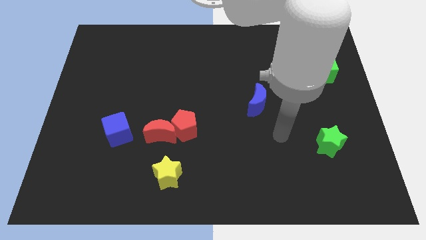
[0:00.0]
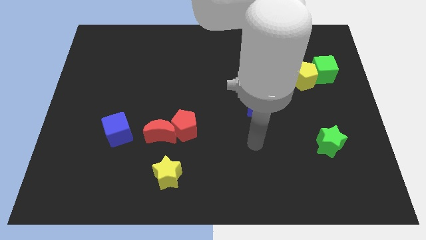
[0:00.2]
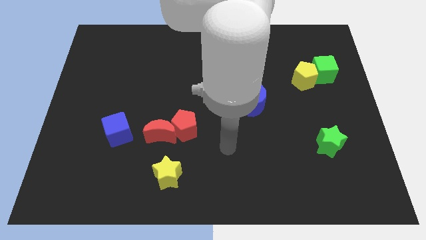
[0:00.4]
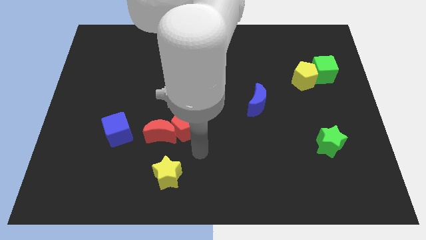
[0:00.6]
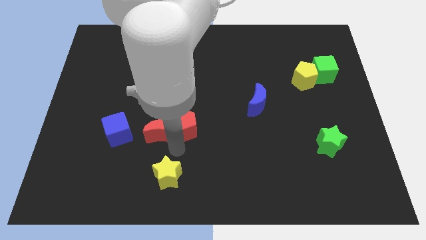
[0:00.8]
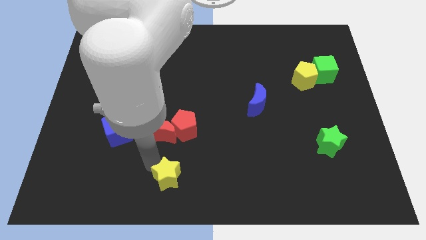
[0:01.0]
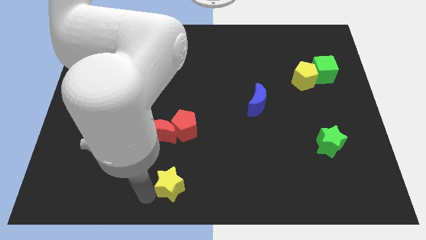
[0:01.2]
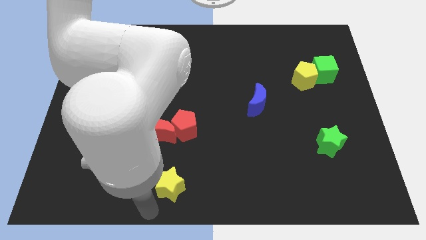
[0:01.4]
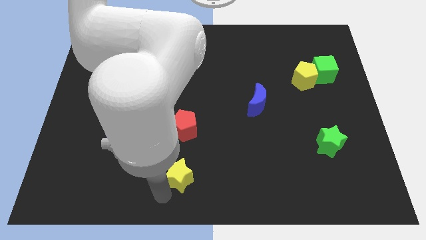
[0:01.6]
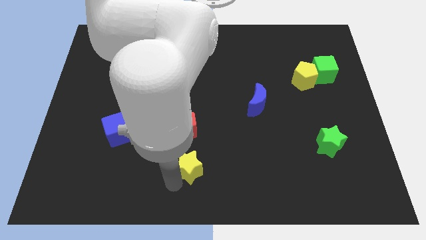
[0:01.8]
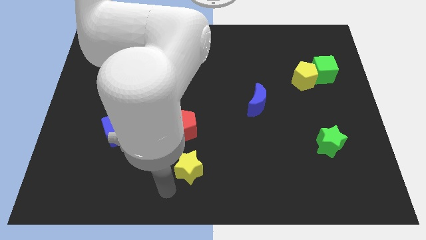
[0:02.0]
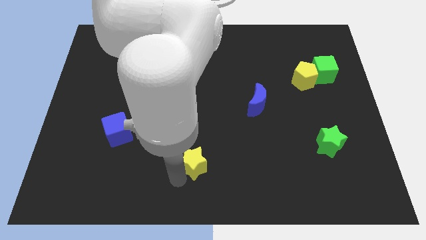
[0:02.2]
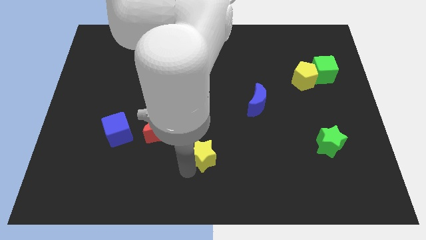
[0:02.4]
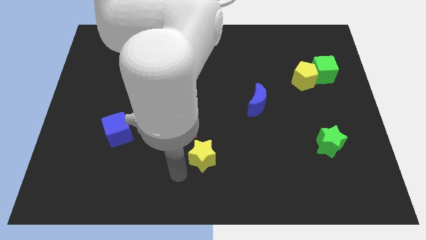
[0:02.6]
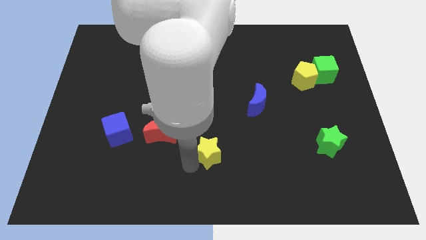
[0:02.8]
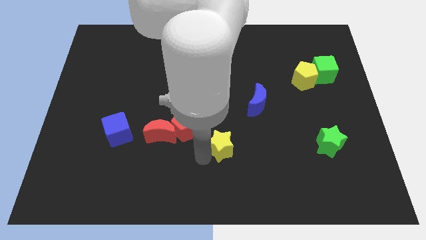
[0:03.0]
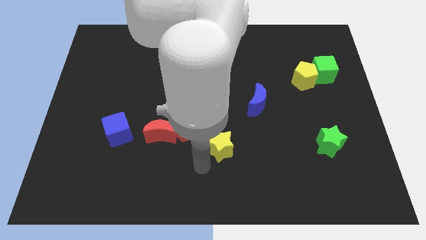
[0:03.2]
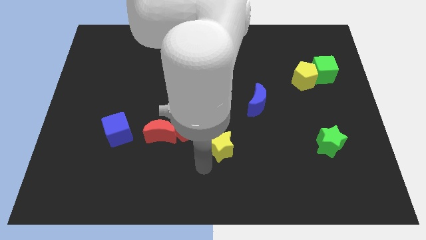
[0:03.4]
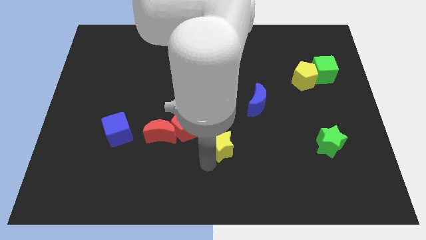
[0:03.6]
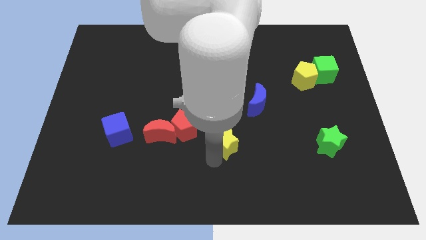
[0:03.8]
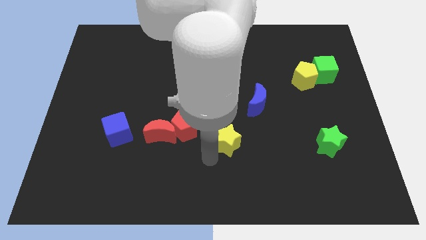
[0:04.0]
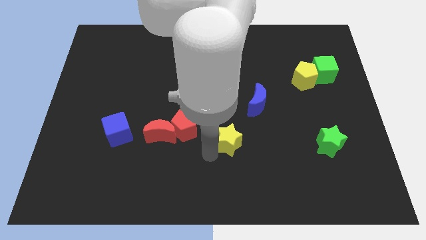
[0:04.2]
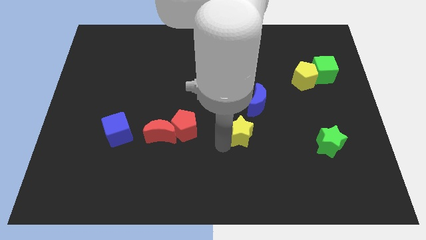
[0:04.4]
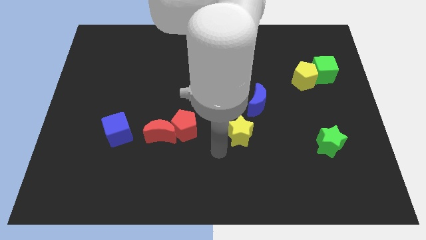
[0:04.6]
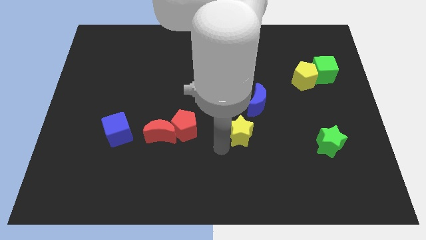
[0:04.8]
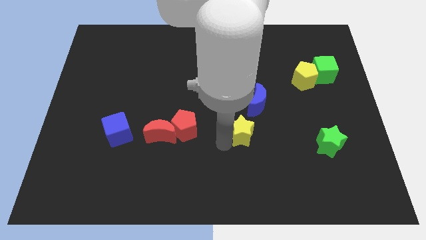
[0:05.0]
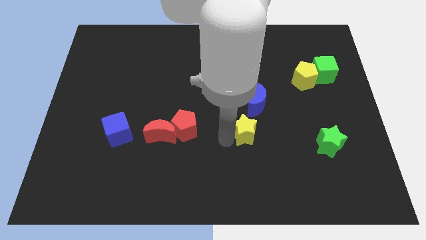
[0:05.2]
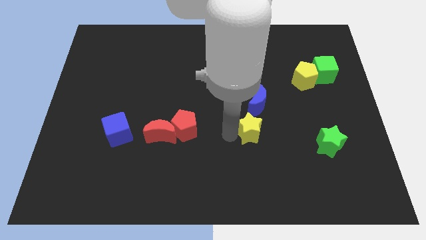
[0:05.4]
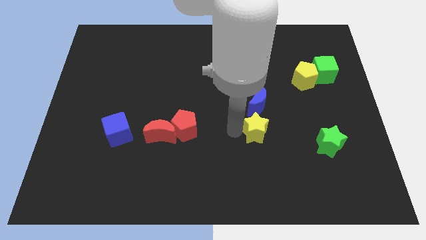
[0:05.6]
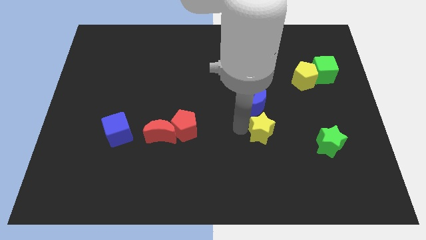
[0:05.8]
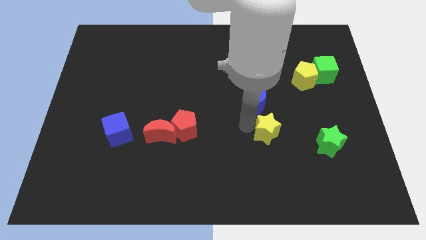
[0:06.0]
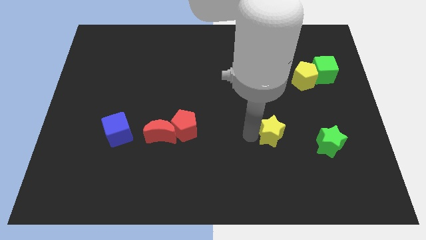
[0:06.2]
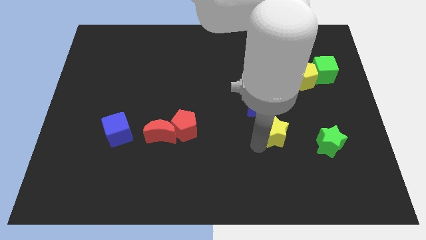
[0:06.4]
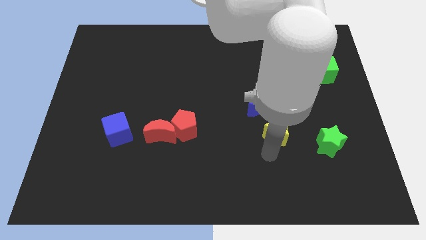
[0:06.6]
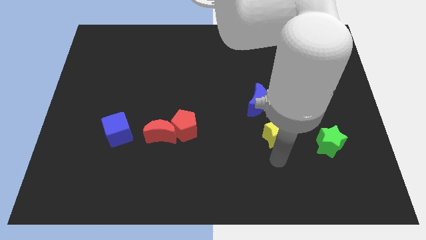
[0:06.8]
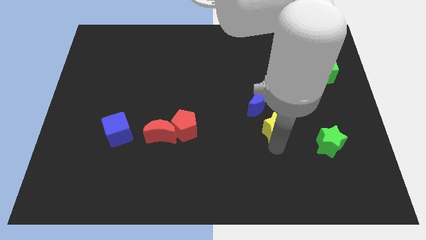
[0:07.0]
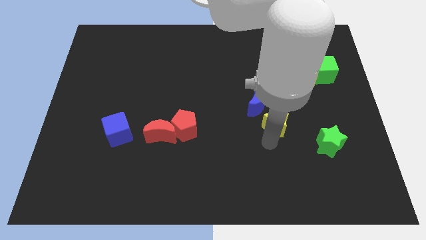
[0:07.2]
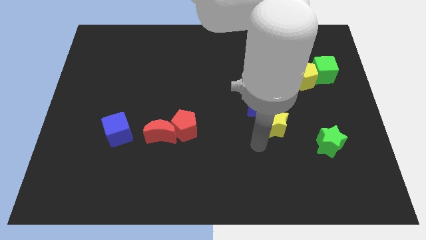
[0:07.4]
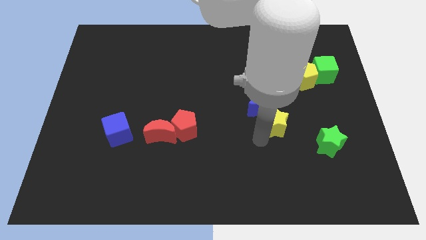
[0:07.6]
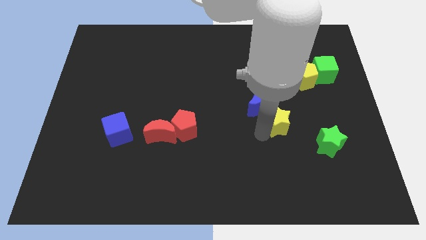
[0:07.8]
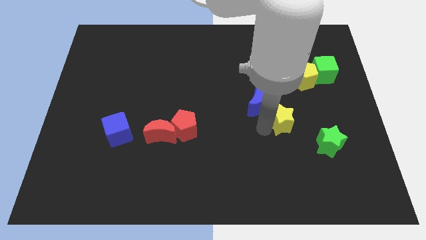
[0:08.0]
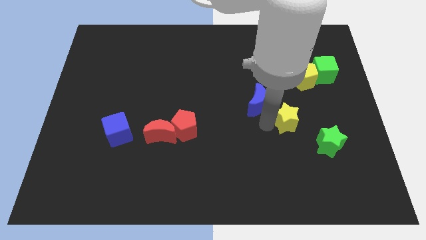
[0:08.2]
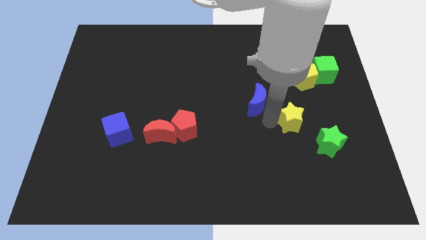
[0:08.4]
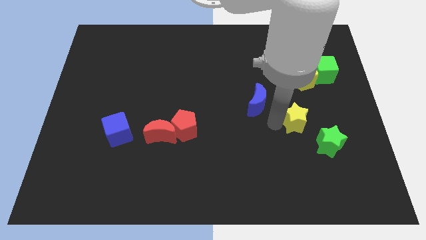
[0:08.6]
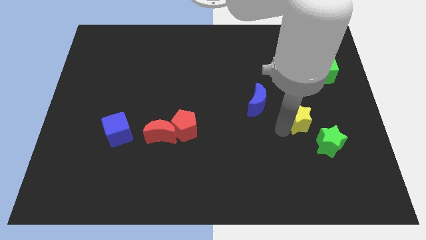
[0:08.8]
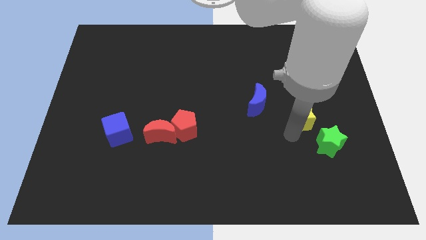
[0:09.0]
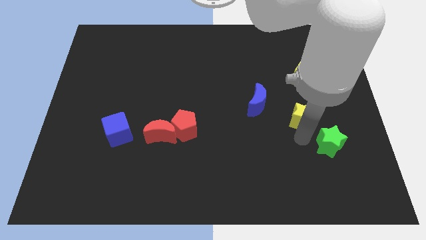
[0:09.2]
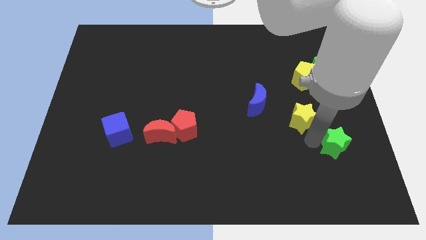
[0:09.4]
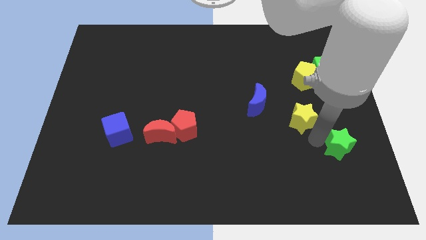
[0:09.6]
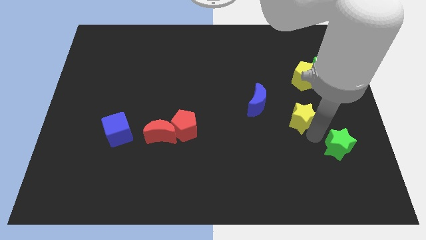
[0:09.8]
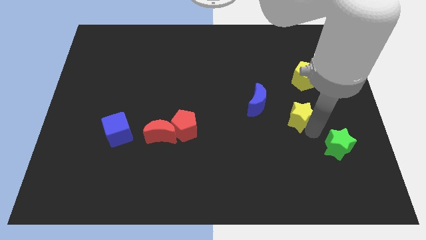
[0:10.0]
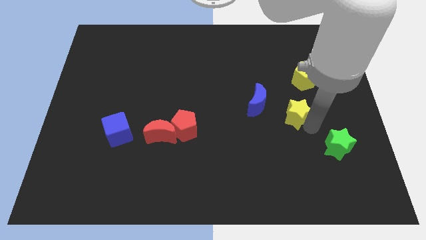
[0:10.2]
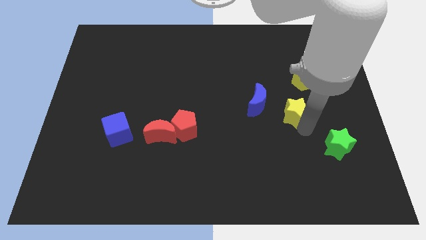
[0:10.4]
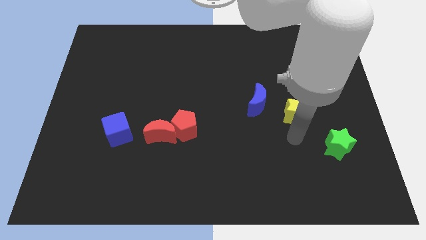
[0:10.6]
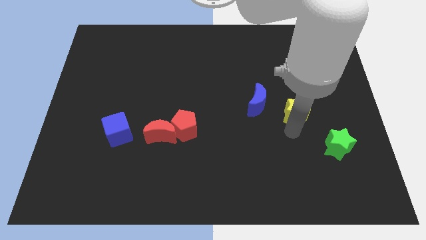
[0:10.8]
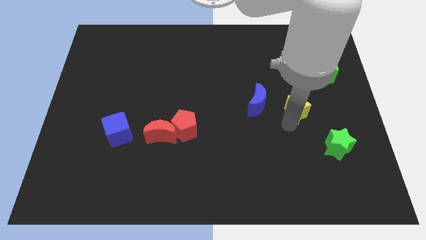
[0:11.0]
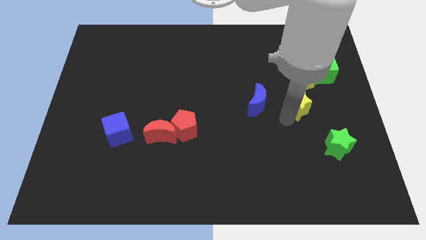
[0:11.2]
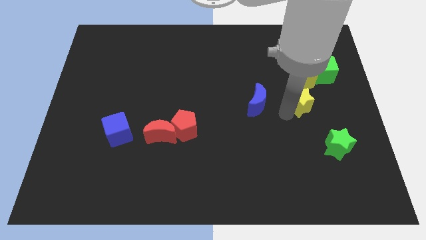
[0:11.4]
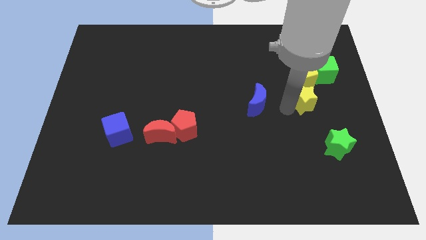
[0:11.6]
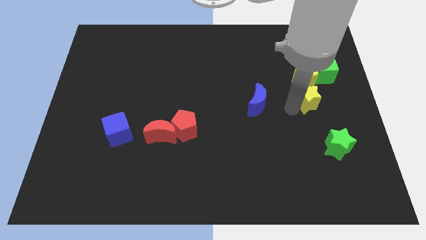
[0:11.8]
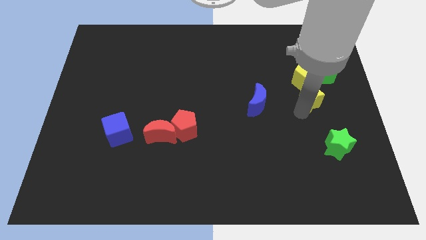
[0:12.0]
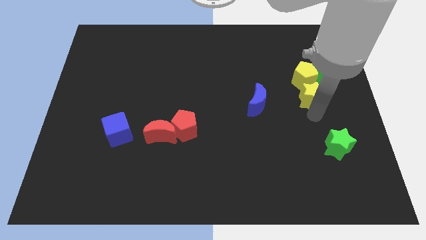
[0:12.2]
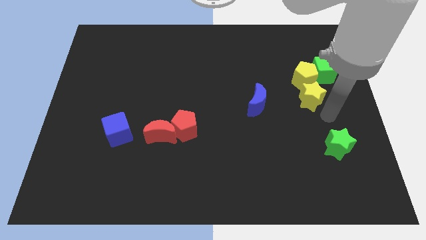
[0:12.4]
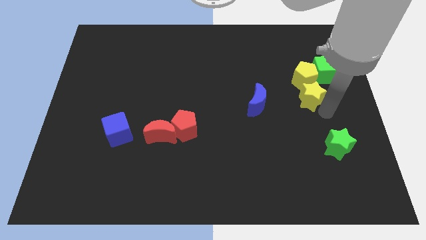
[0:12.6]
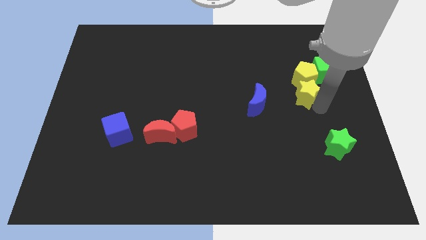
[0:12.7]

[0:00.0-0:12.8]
move the yellow star close to the yellow pentagon
